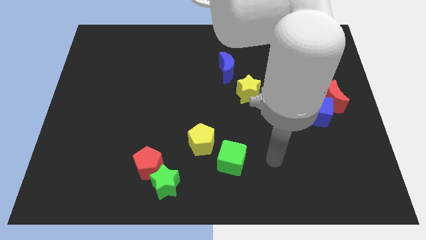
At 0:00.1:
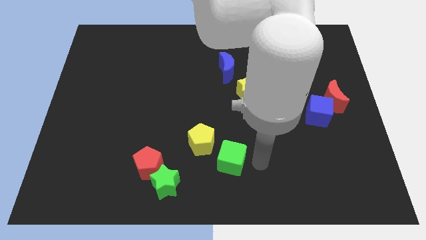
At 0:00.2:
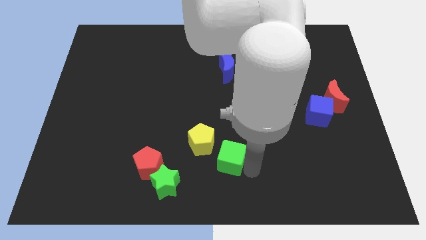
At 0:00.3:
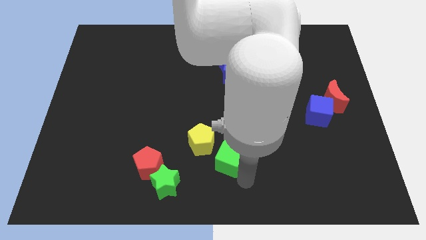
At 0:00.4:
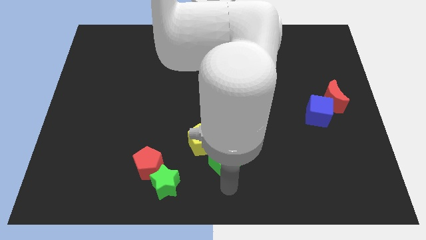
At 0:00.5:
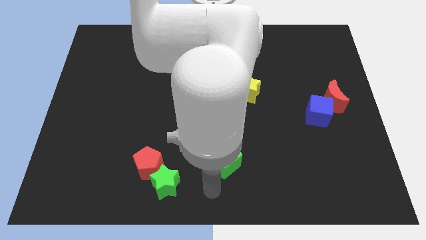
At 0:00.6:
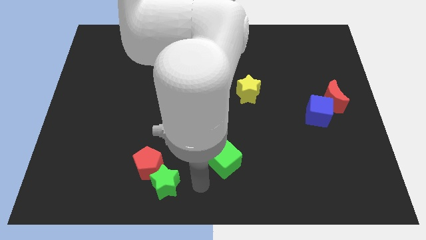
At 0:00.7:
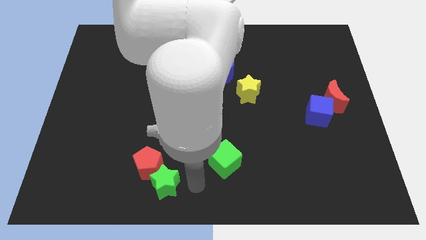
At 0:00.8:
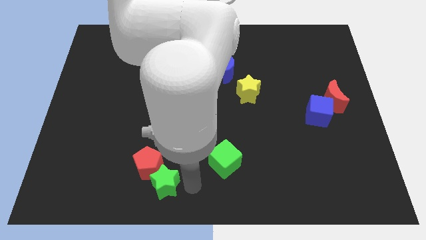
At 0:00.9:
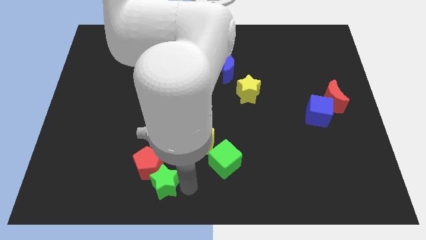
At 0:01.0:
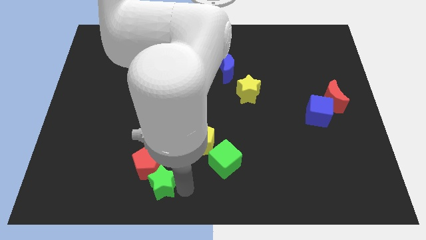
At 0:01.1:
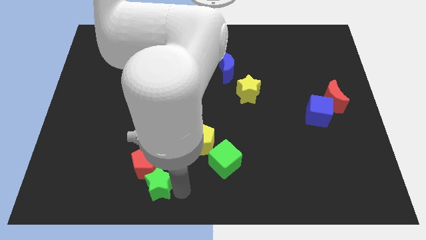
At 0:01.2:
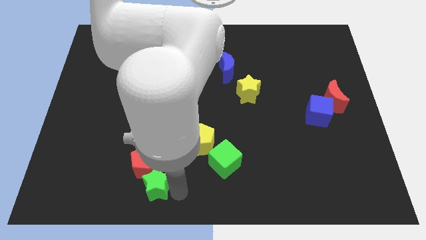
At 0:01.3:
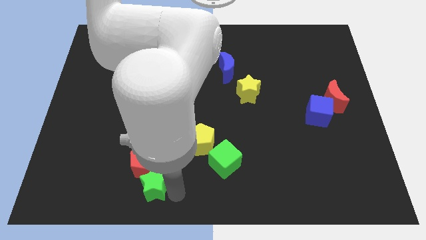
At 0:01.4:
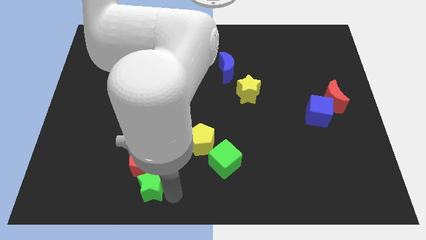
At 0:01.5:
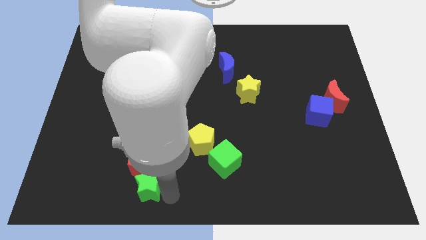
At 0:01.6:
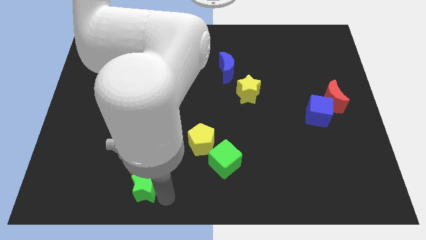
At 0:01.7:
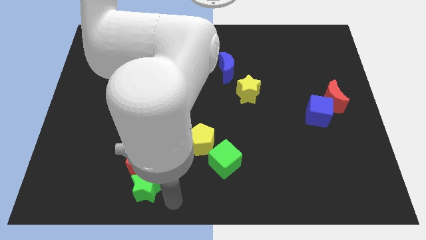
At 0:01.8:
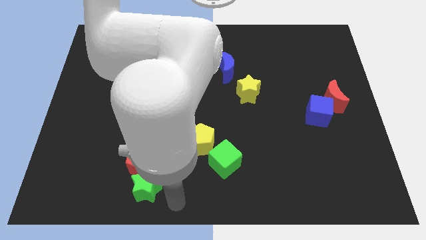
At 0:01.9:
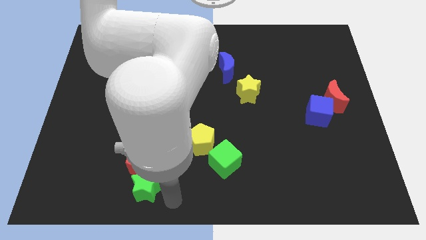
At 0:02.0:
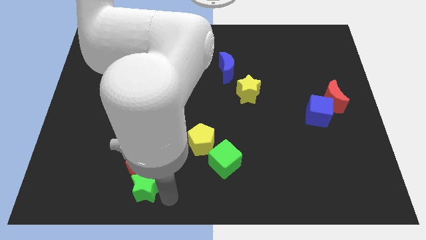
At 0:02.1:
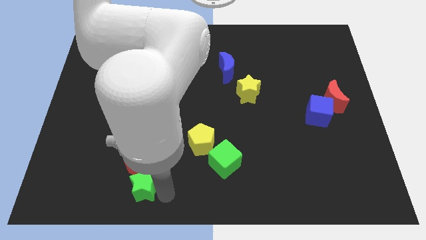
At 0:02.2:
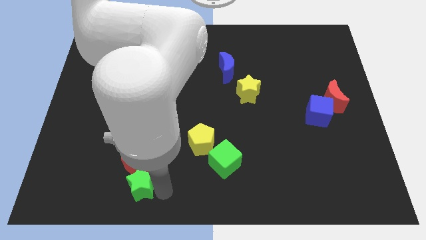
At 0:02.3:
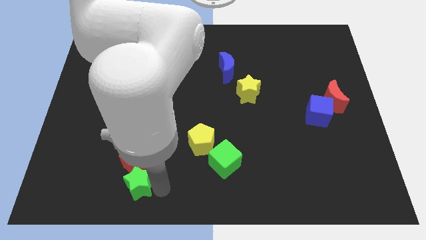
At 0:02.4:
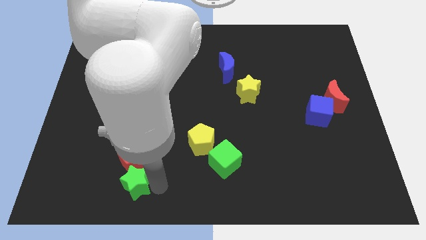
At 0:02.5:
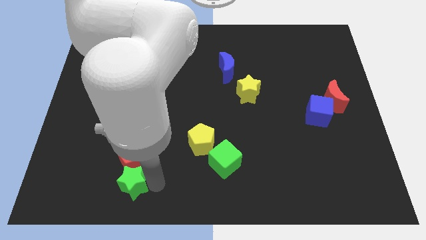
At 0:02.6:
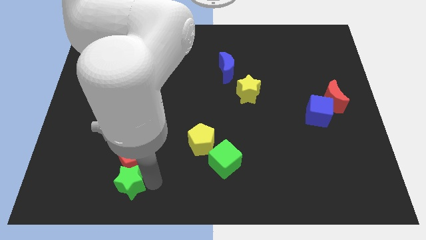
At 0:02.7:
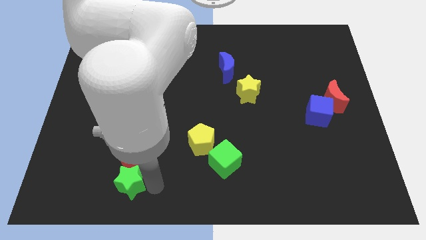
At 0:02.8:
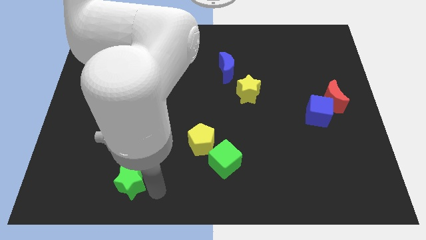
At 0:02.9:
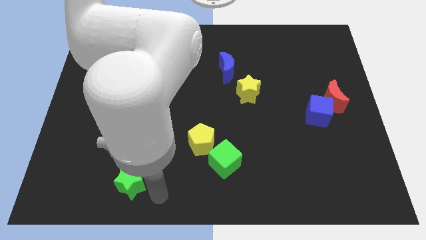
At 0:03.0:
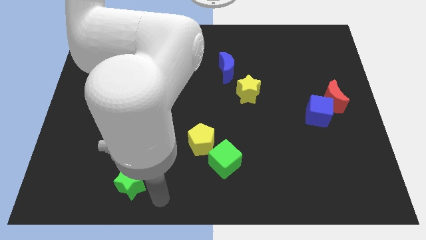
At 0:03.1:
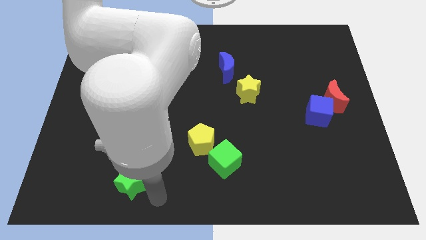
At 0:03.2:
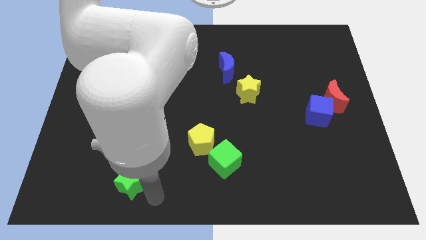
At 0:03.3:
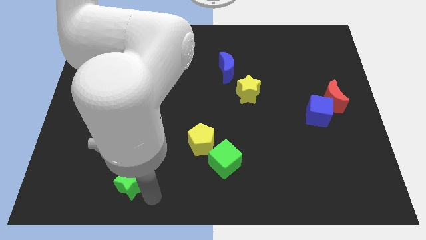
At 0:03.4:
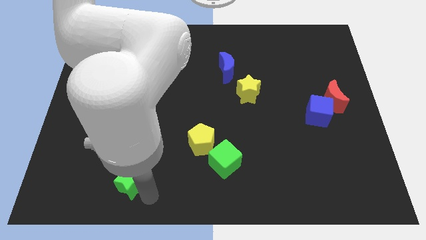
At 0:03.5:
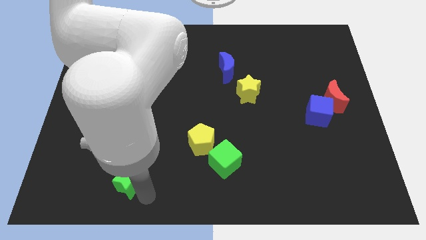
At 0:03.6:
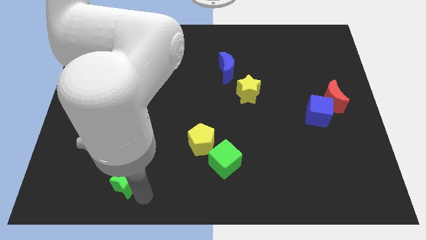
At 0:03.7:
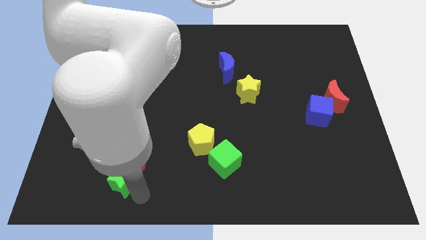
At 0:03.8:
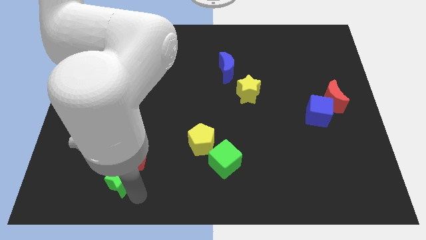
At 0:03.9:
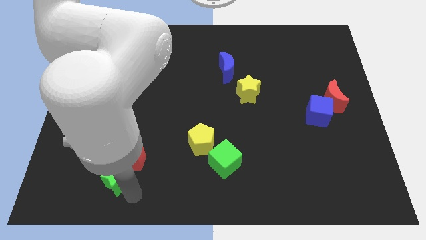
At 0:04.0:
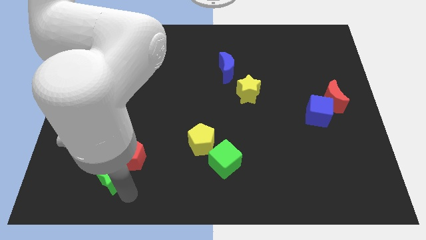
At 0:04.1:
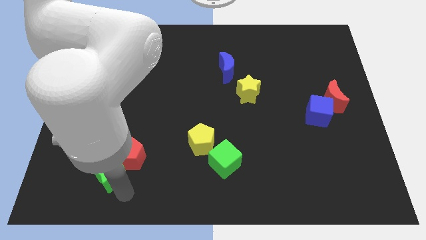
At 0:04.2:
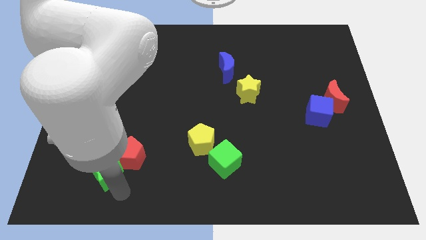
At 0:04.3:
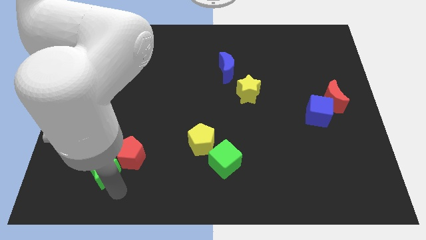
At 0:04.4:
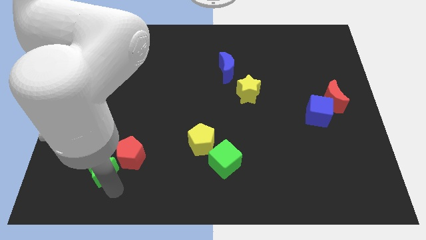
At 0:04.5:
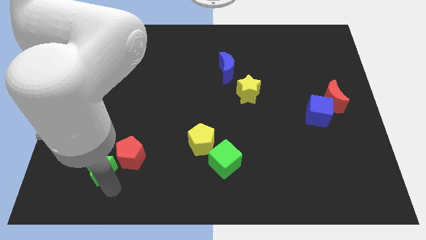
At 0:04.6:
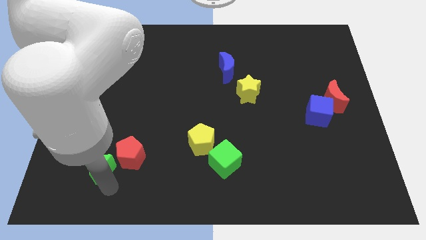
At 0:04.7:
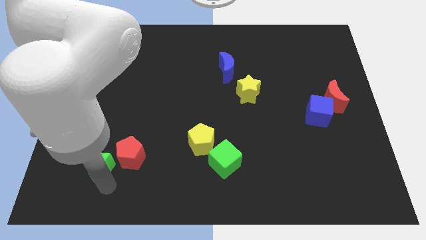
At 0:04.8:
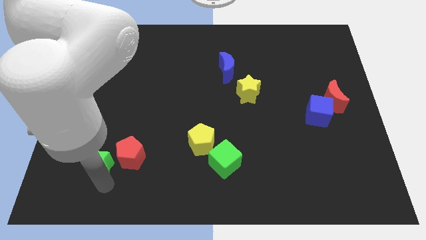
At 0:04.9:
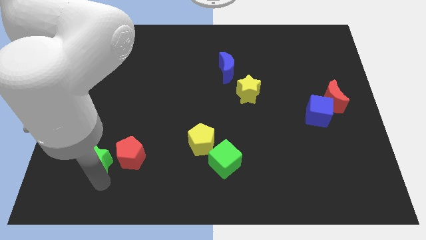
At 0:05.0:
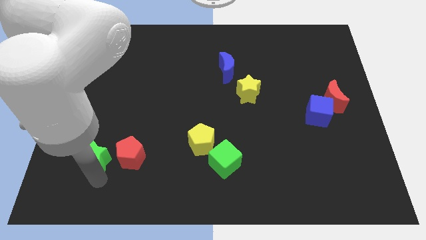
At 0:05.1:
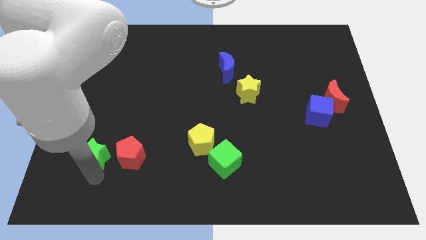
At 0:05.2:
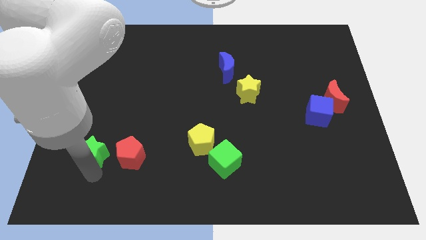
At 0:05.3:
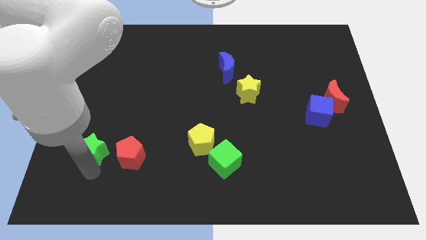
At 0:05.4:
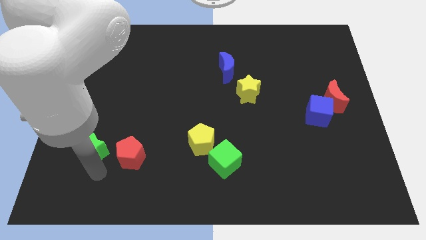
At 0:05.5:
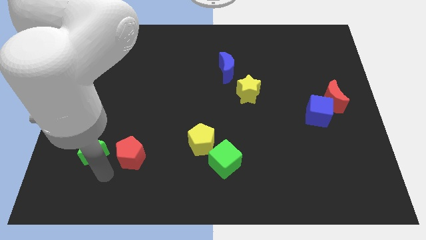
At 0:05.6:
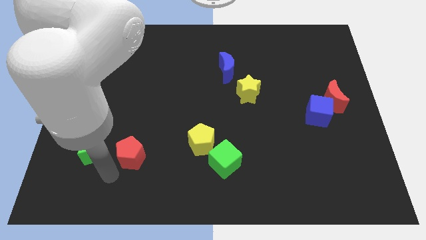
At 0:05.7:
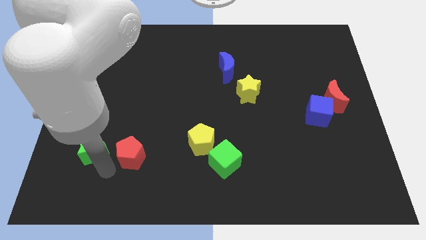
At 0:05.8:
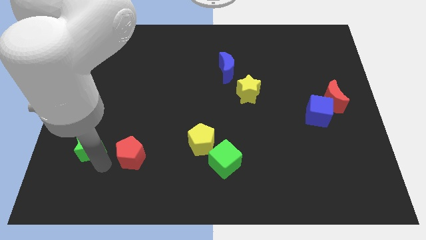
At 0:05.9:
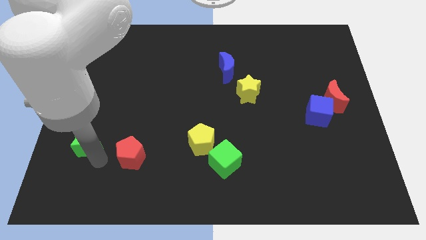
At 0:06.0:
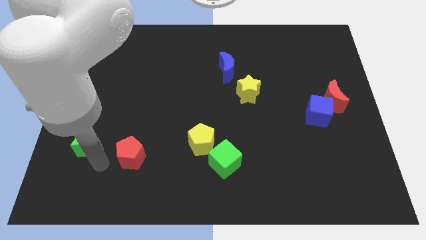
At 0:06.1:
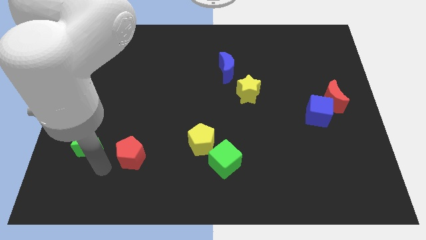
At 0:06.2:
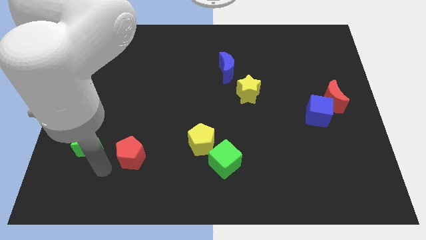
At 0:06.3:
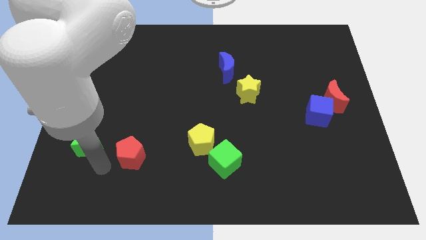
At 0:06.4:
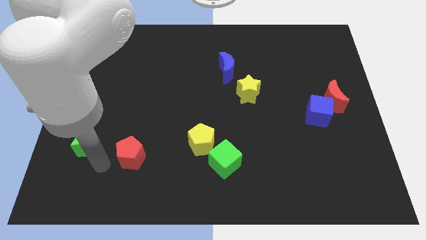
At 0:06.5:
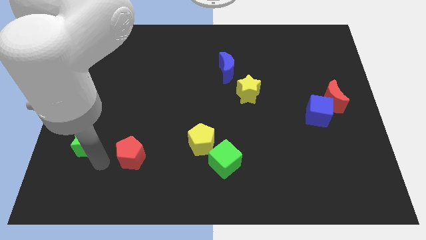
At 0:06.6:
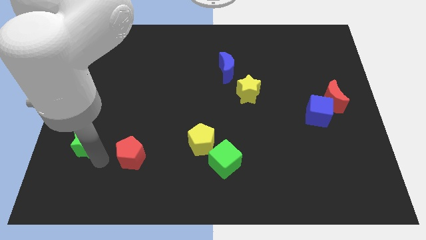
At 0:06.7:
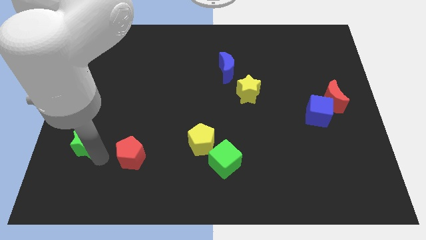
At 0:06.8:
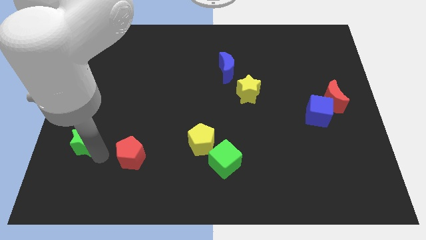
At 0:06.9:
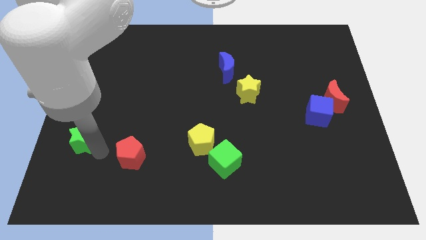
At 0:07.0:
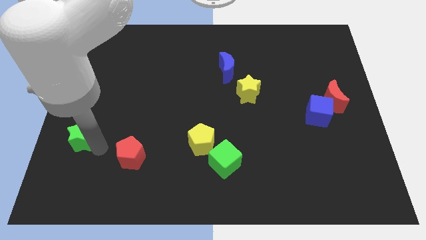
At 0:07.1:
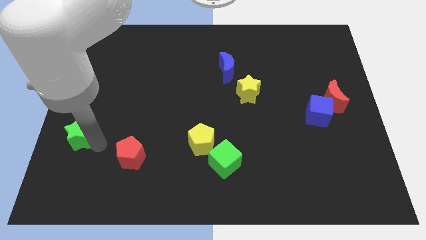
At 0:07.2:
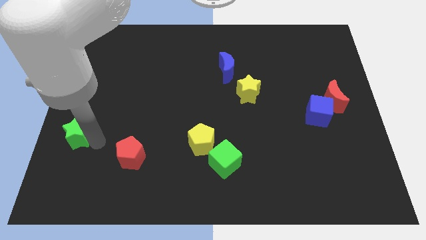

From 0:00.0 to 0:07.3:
move the green star to the left side of the board
